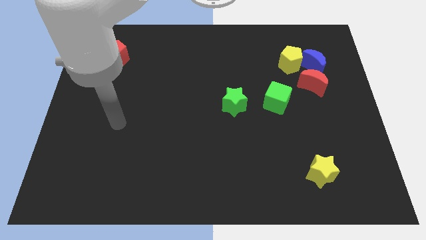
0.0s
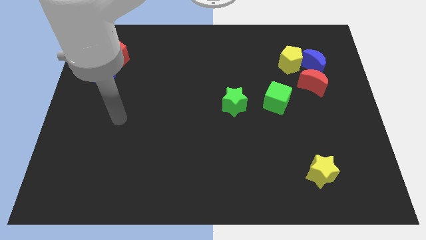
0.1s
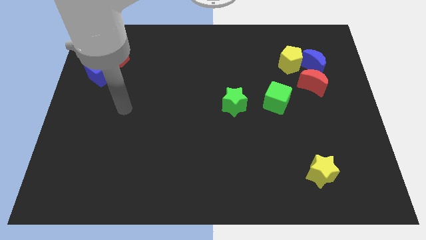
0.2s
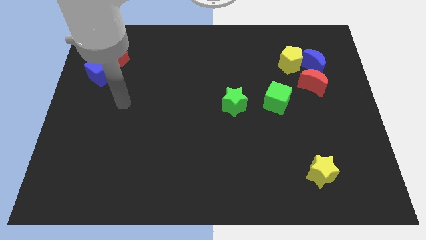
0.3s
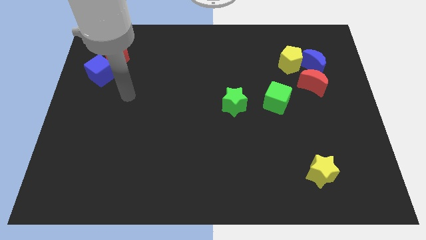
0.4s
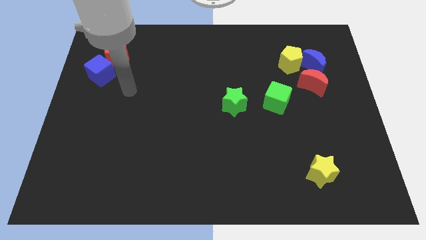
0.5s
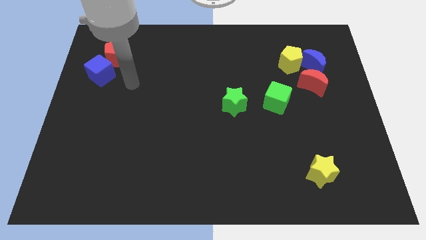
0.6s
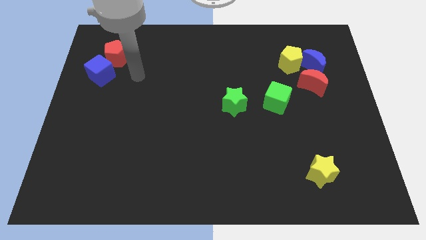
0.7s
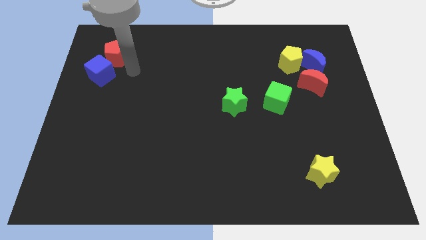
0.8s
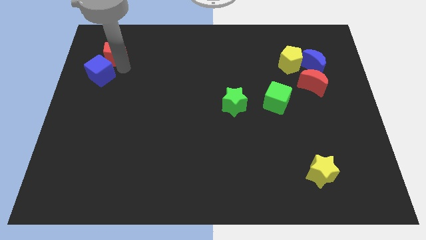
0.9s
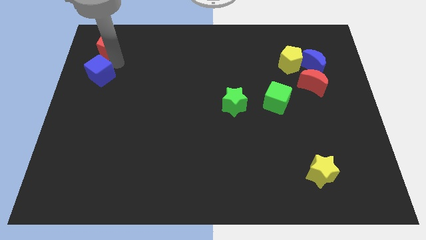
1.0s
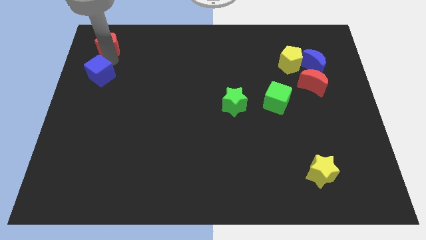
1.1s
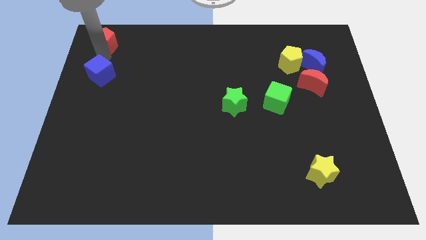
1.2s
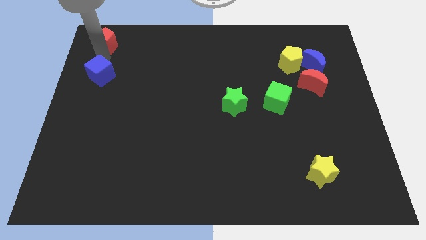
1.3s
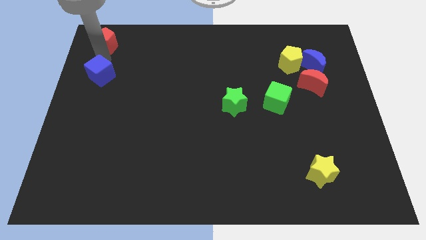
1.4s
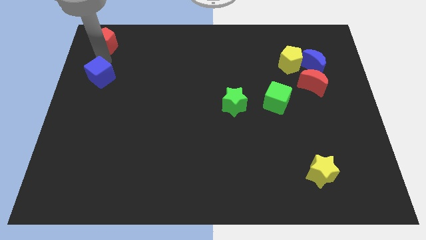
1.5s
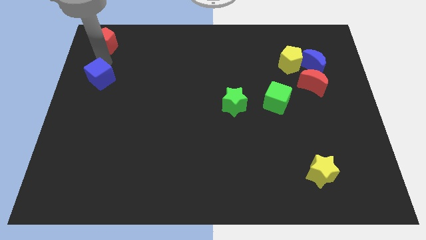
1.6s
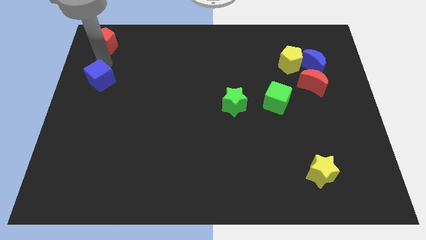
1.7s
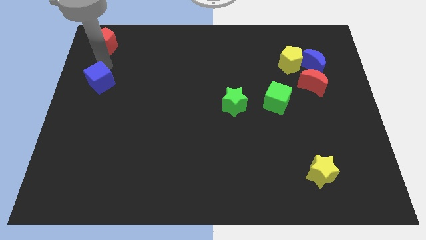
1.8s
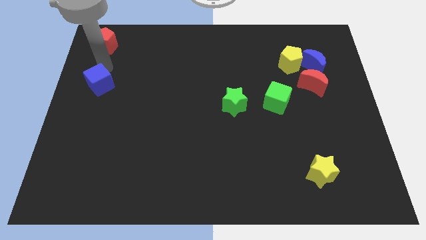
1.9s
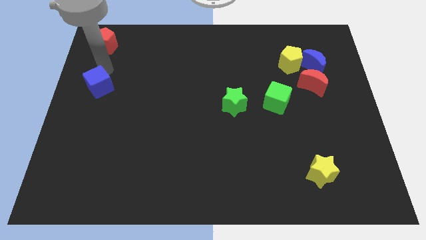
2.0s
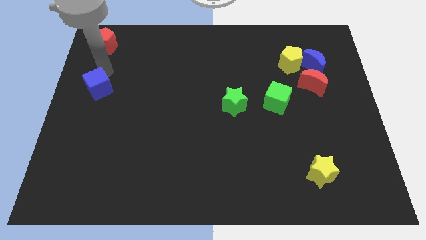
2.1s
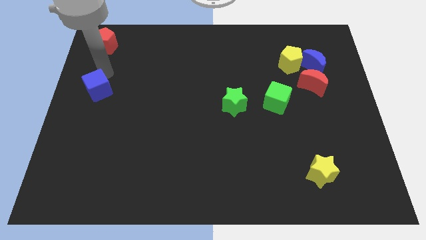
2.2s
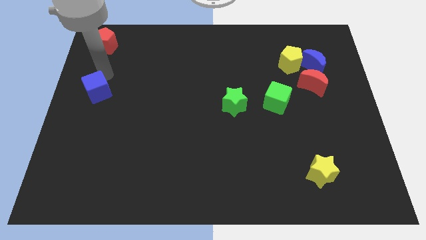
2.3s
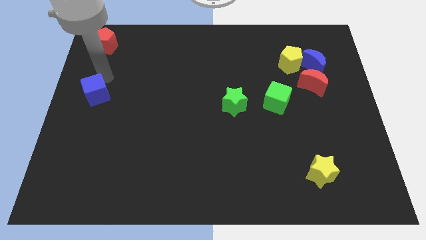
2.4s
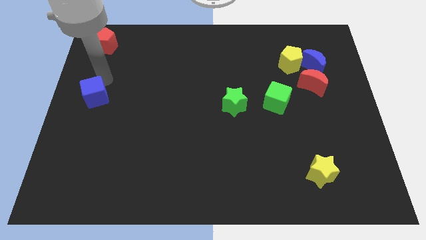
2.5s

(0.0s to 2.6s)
push the blue cube down slightly

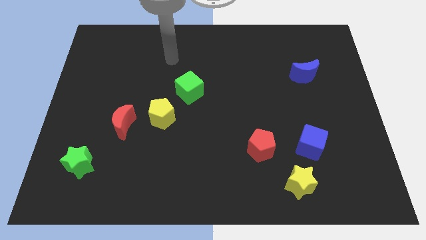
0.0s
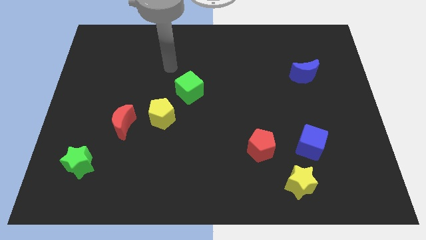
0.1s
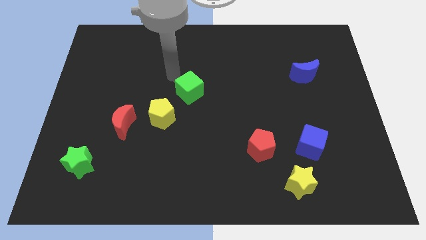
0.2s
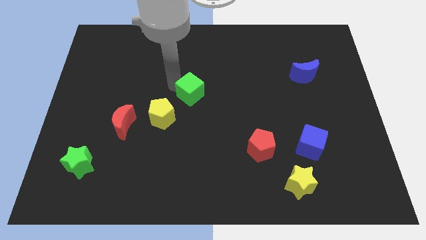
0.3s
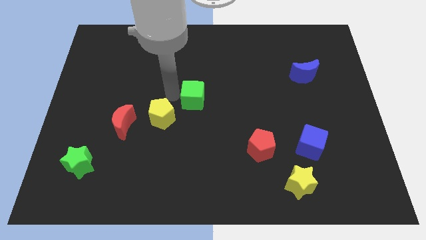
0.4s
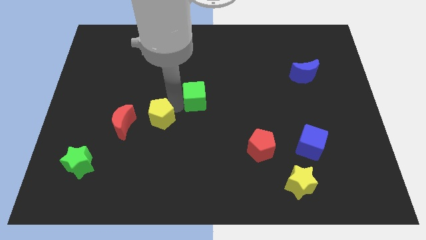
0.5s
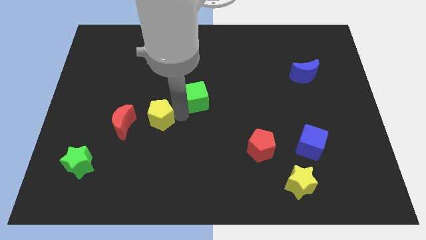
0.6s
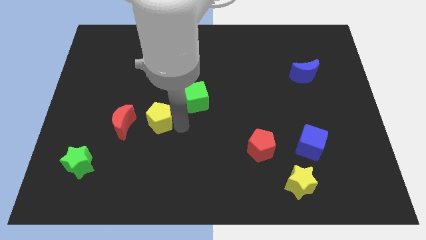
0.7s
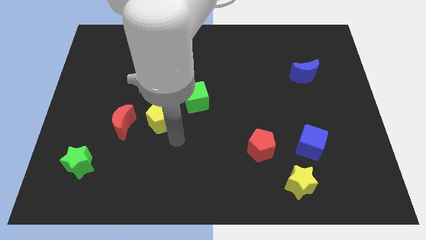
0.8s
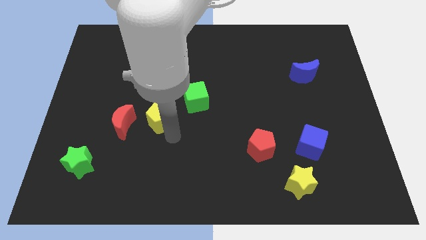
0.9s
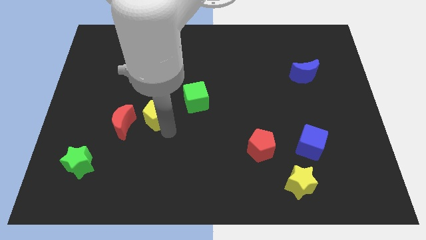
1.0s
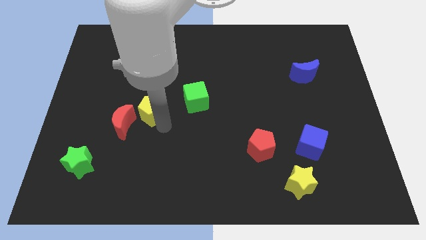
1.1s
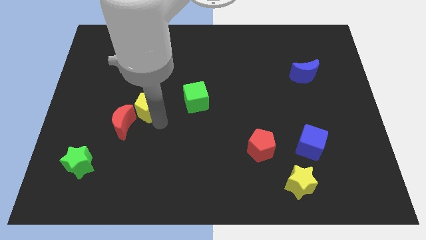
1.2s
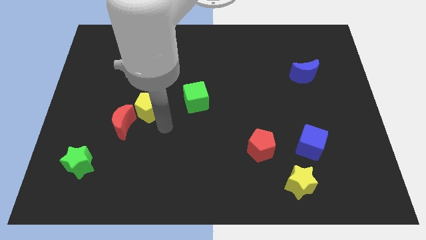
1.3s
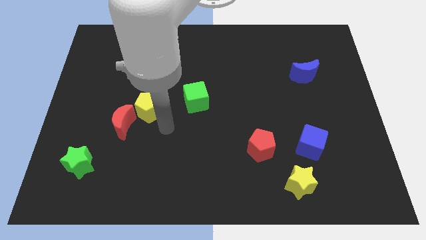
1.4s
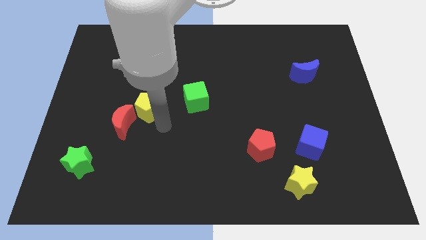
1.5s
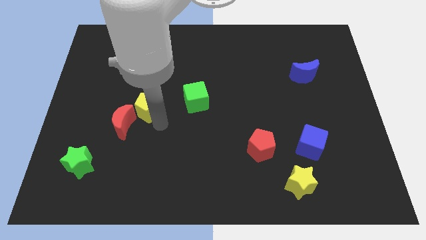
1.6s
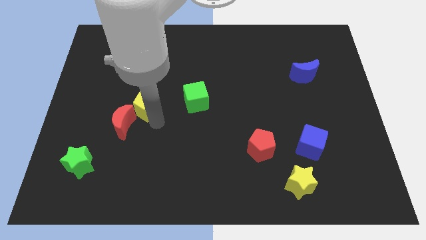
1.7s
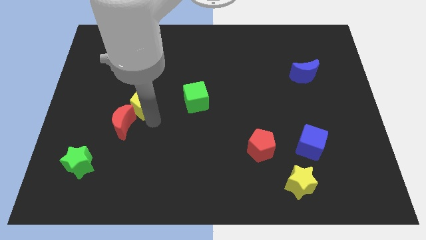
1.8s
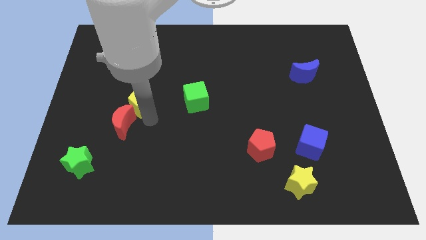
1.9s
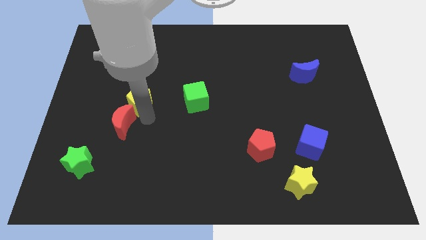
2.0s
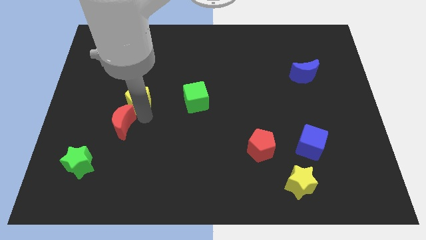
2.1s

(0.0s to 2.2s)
slide the yellow pentagon up and then left somewhat

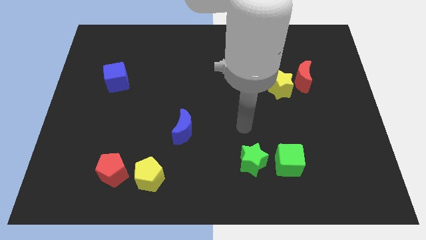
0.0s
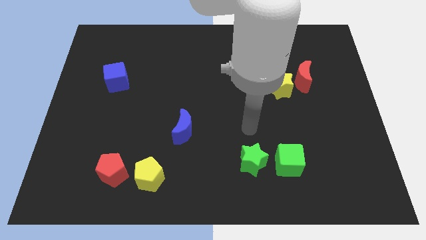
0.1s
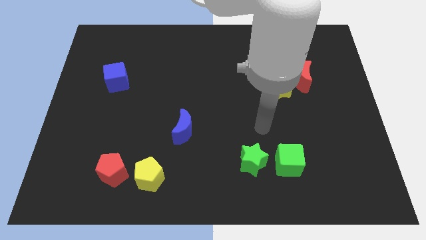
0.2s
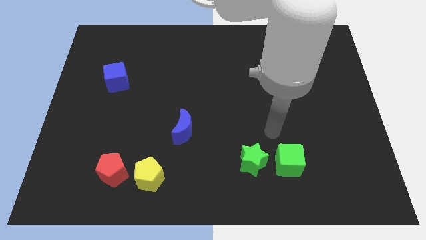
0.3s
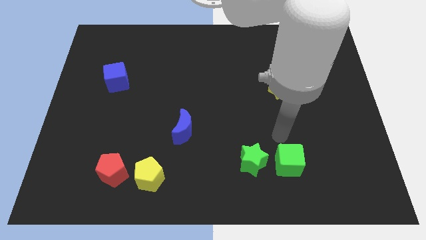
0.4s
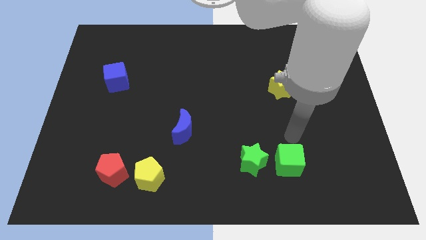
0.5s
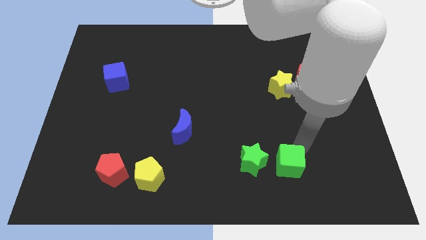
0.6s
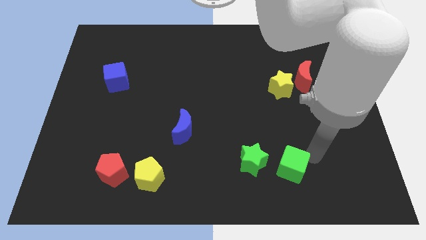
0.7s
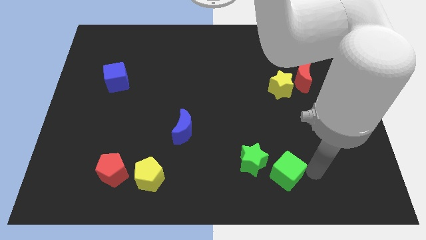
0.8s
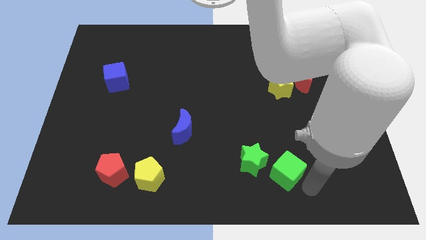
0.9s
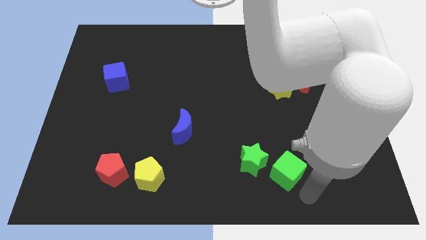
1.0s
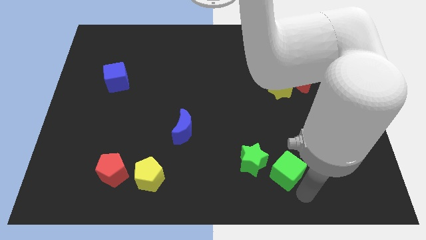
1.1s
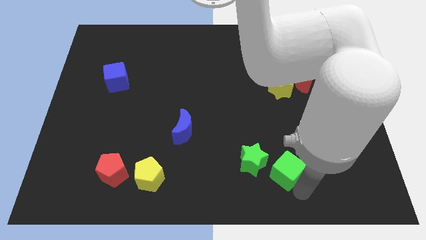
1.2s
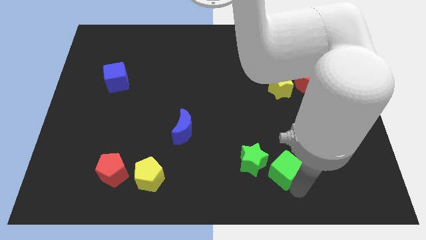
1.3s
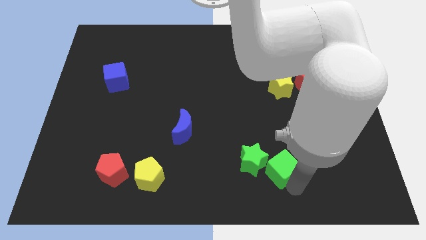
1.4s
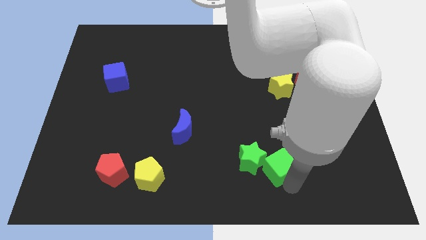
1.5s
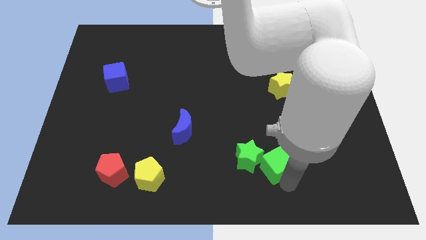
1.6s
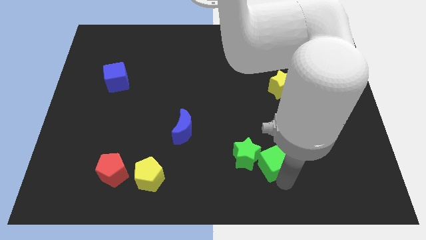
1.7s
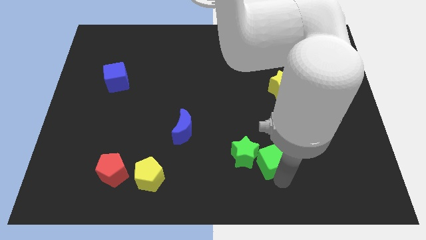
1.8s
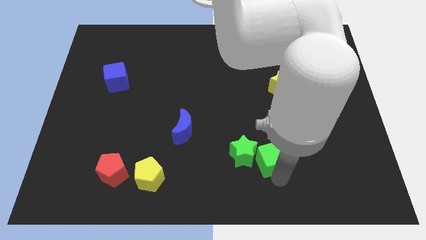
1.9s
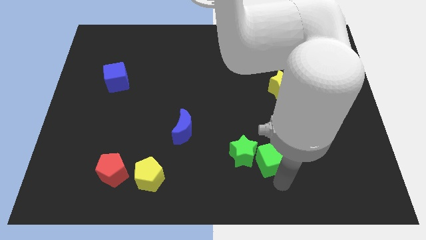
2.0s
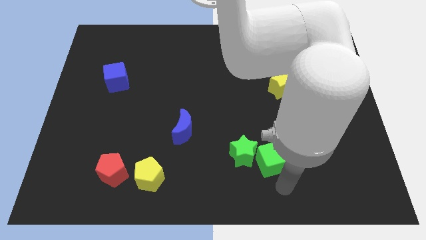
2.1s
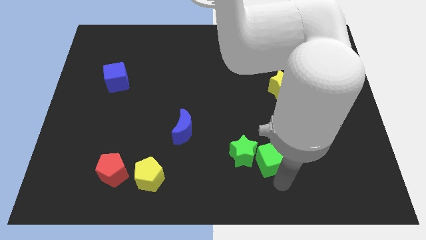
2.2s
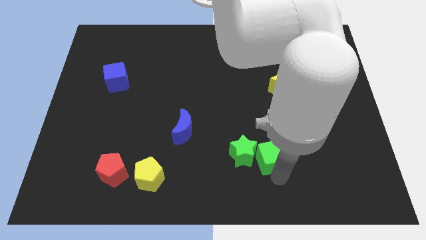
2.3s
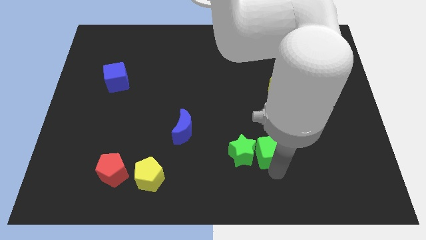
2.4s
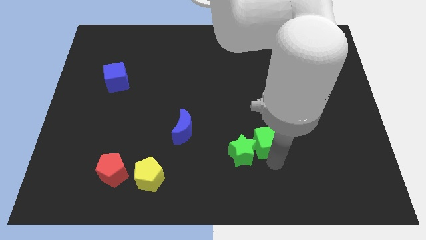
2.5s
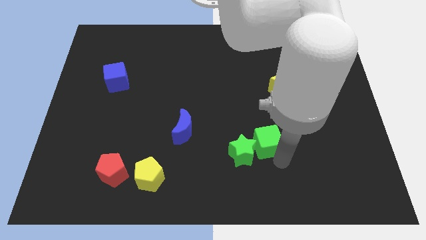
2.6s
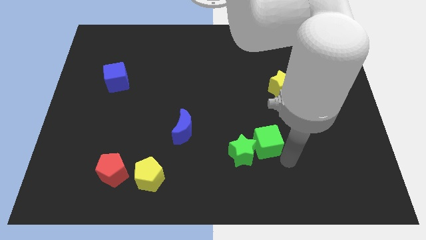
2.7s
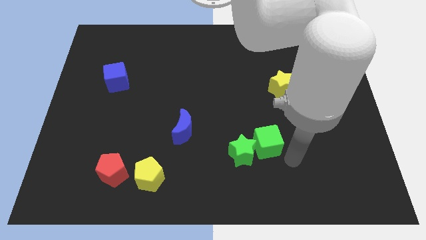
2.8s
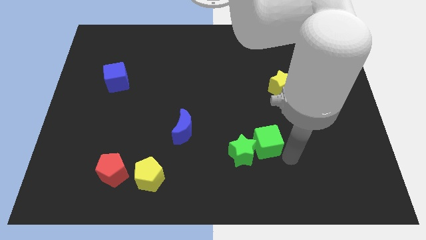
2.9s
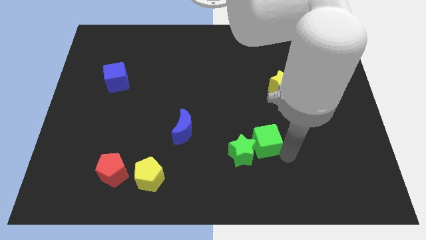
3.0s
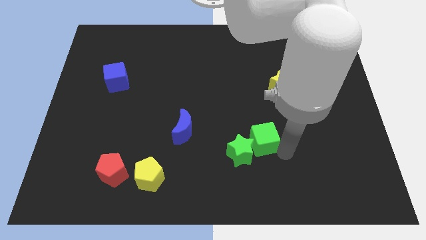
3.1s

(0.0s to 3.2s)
move the green cube slightly up and to the left
